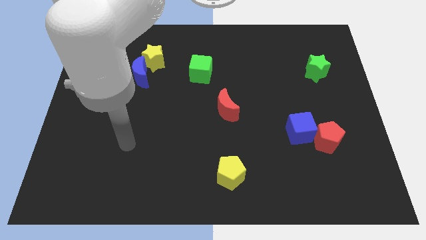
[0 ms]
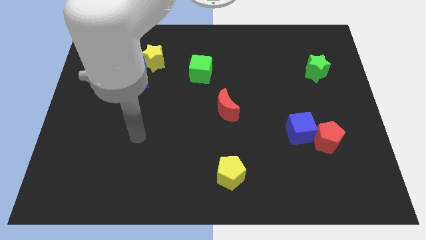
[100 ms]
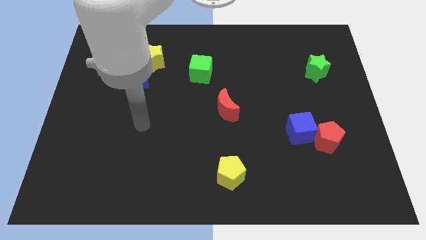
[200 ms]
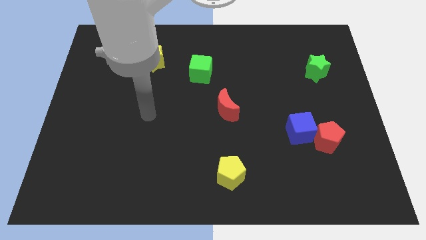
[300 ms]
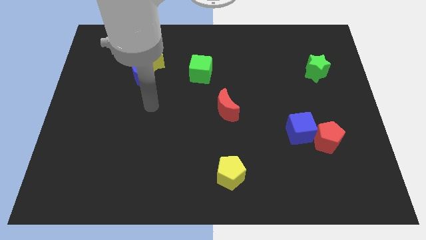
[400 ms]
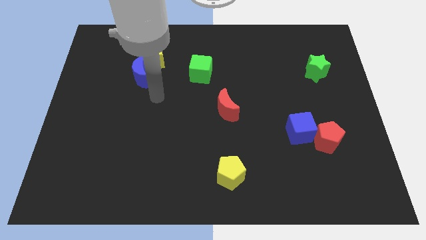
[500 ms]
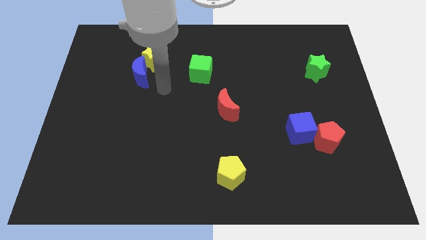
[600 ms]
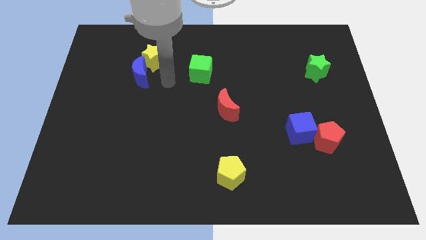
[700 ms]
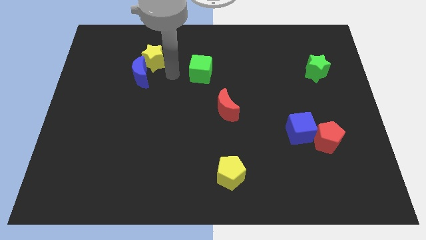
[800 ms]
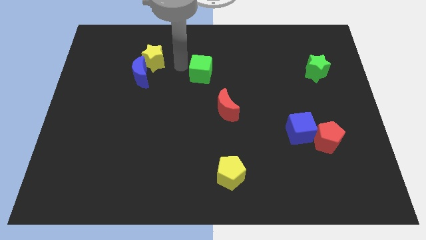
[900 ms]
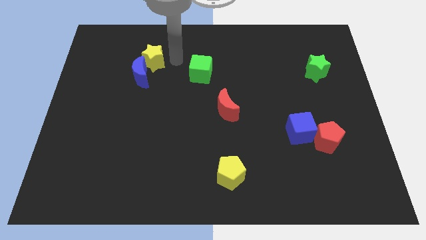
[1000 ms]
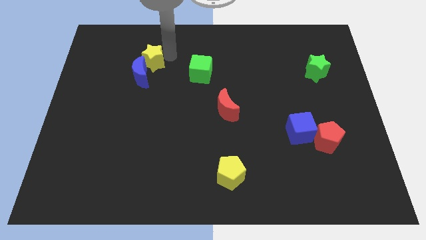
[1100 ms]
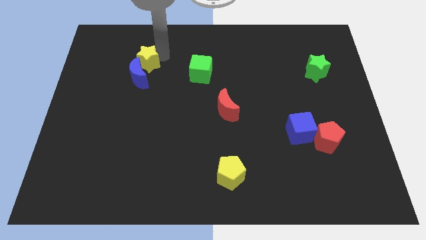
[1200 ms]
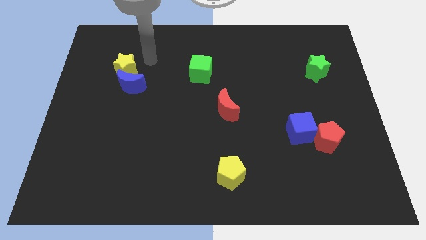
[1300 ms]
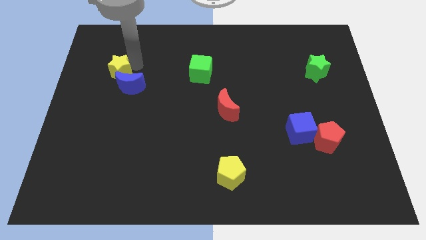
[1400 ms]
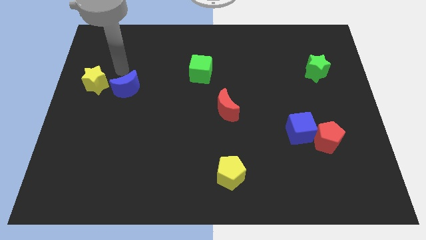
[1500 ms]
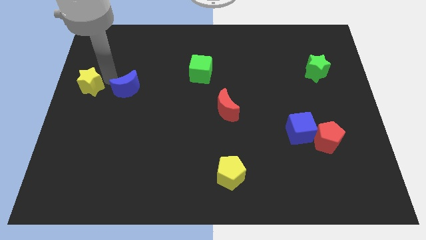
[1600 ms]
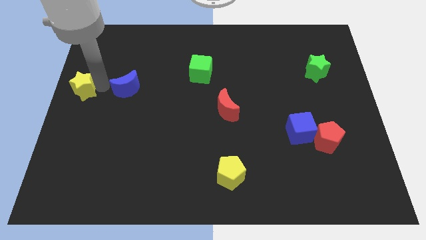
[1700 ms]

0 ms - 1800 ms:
move the blue moon away from the yellow star

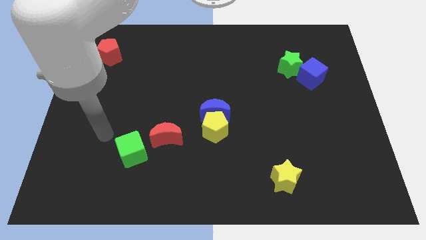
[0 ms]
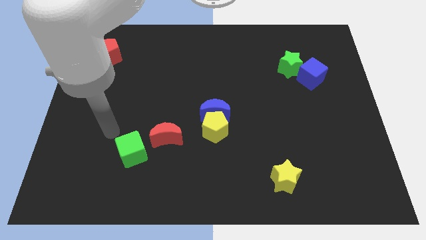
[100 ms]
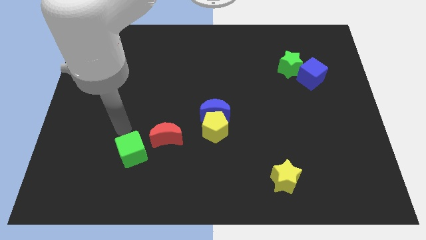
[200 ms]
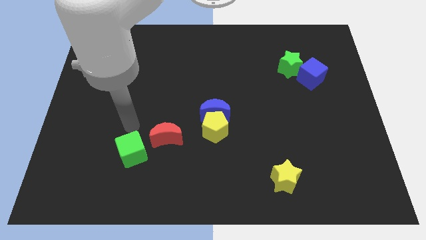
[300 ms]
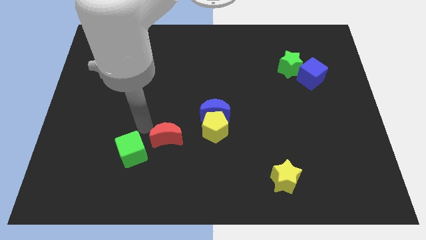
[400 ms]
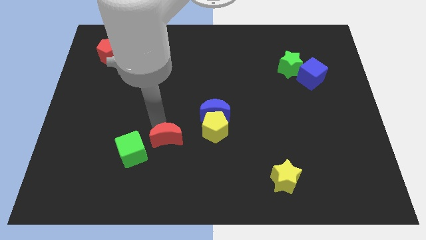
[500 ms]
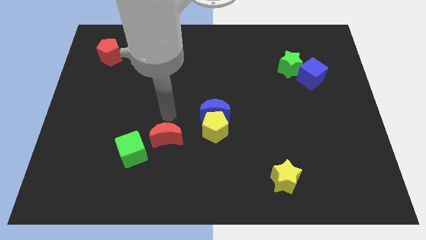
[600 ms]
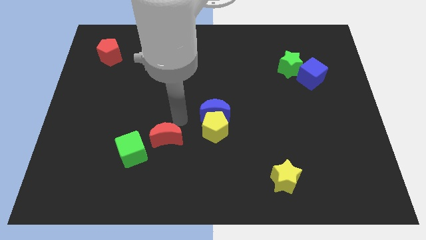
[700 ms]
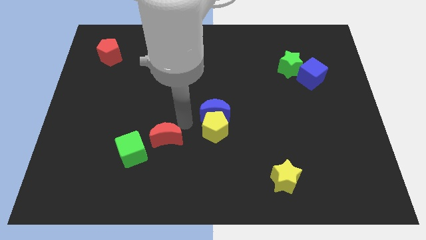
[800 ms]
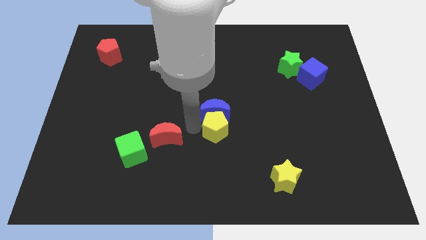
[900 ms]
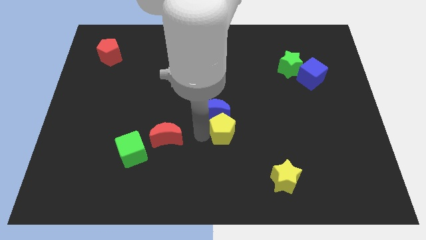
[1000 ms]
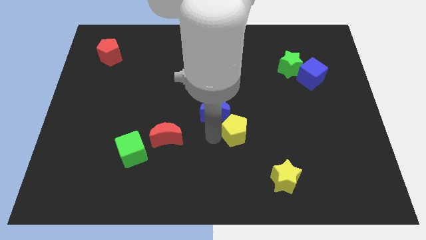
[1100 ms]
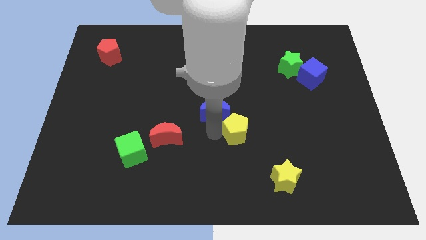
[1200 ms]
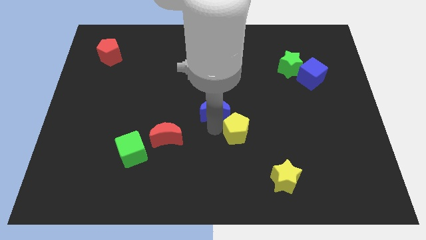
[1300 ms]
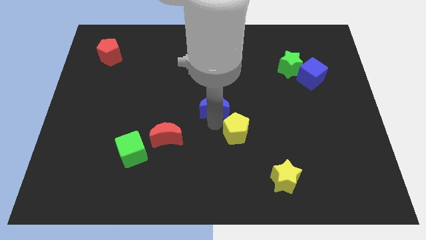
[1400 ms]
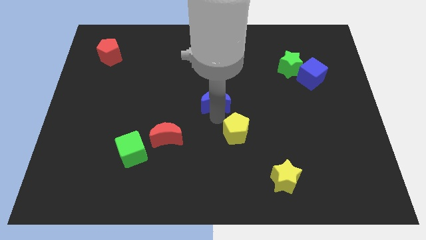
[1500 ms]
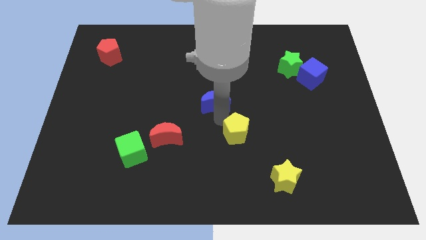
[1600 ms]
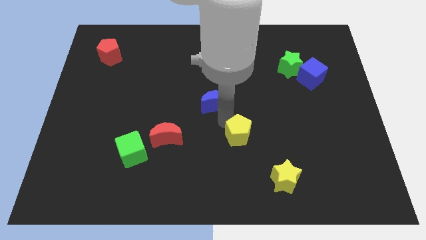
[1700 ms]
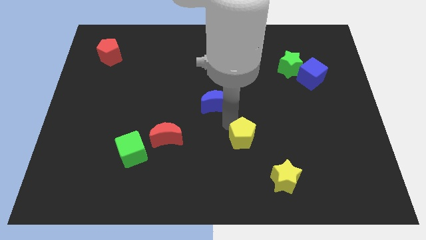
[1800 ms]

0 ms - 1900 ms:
pull the blue moon apart from the yellow pentagon

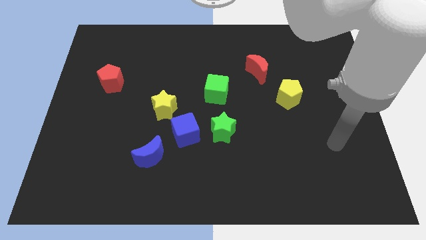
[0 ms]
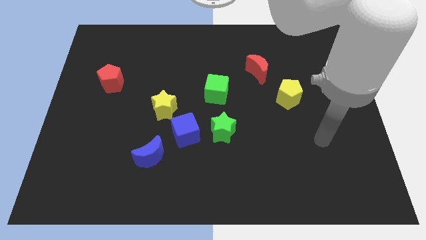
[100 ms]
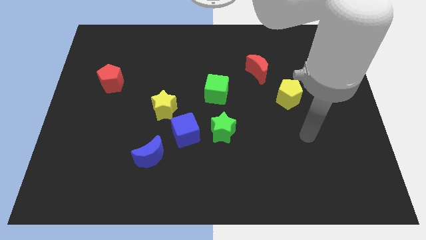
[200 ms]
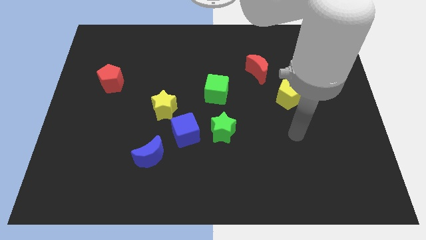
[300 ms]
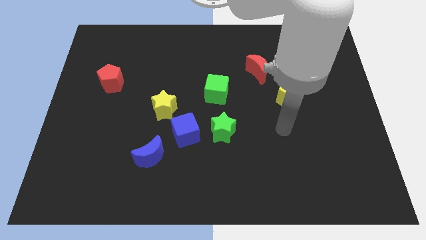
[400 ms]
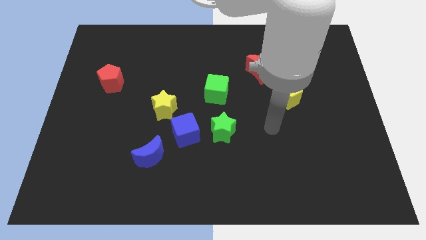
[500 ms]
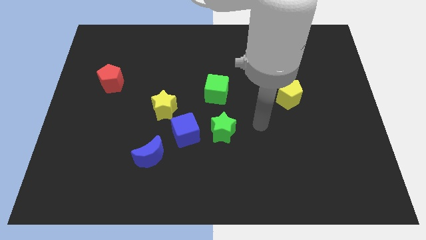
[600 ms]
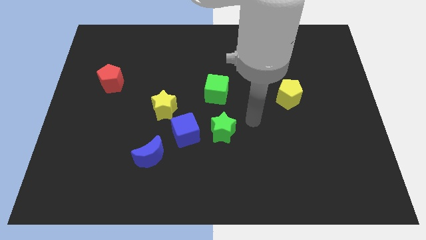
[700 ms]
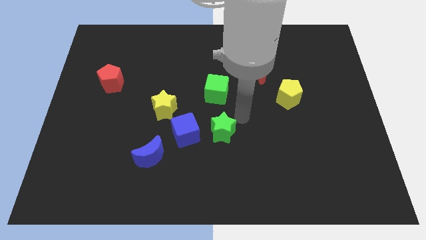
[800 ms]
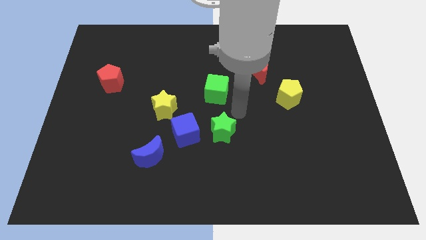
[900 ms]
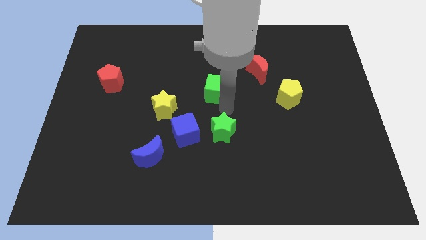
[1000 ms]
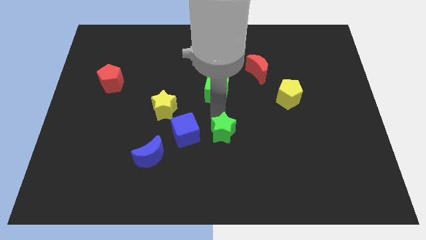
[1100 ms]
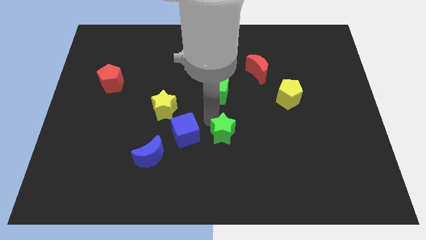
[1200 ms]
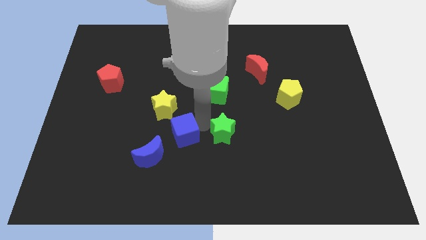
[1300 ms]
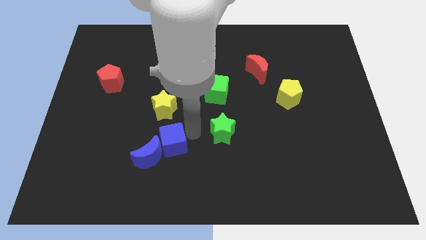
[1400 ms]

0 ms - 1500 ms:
separate the green star from the blue cube

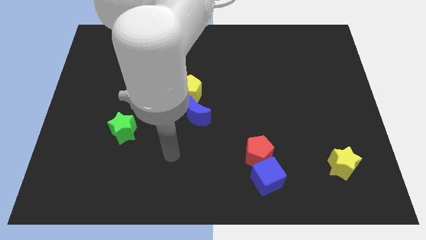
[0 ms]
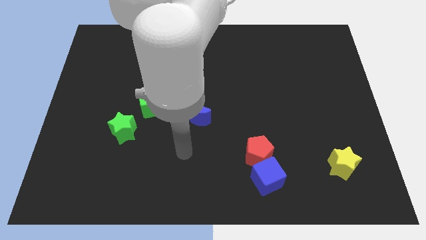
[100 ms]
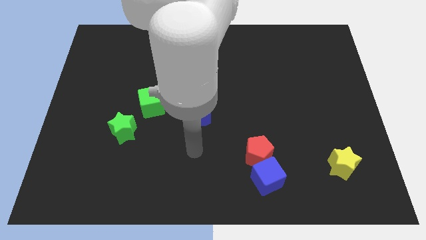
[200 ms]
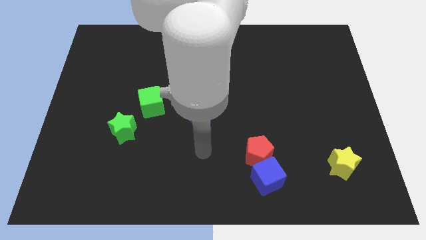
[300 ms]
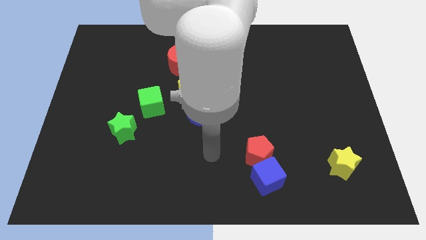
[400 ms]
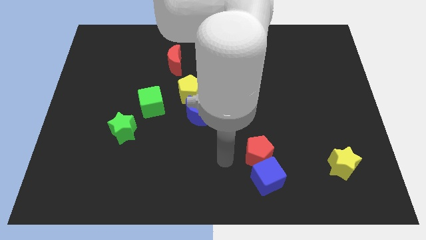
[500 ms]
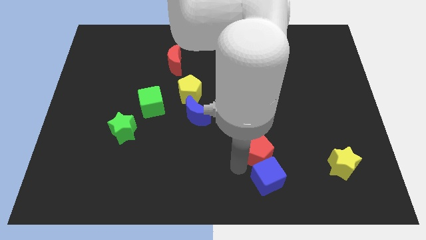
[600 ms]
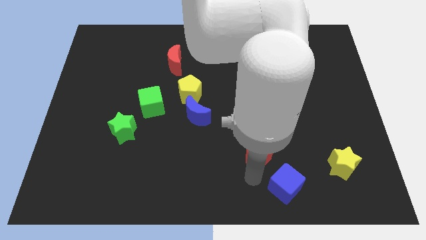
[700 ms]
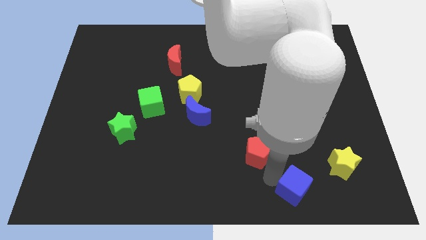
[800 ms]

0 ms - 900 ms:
pull the red pentagon apart from the blue cube

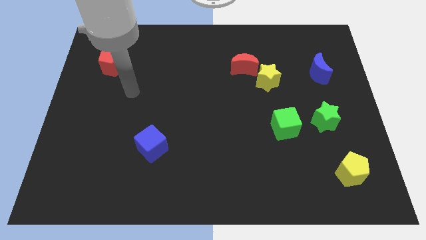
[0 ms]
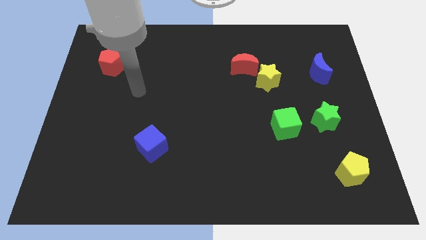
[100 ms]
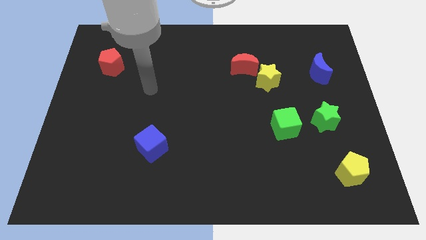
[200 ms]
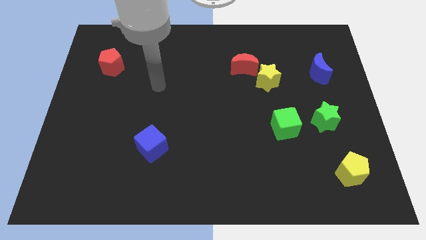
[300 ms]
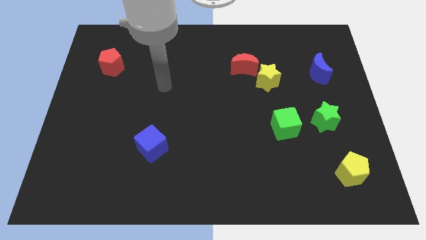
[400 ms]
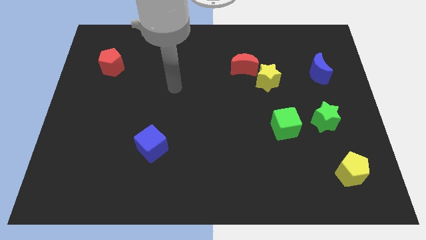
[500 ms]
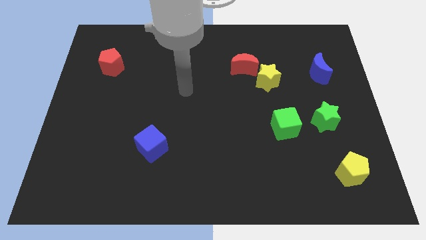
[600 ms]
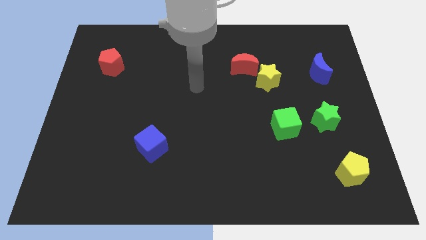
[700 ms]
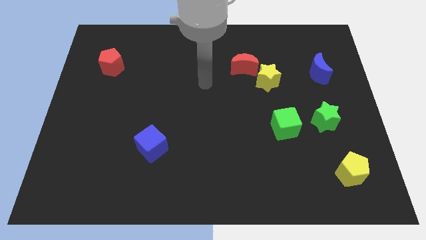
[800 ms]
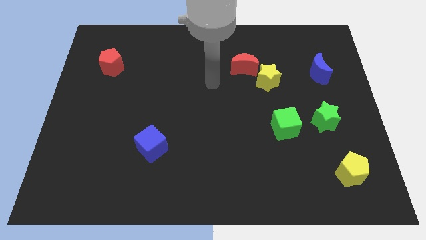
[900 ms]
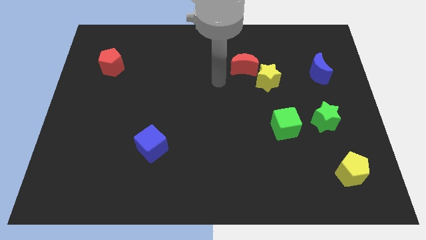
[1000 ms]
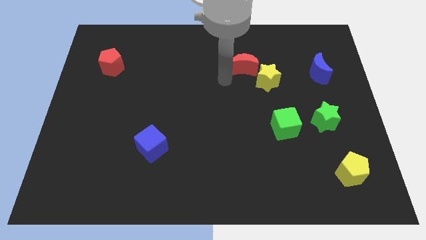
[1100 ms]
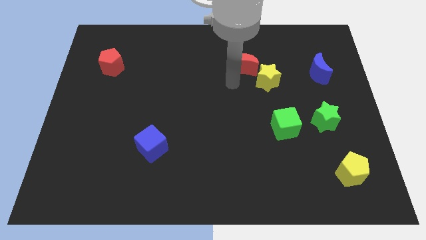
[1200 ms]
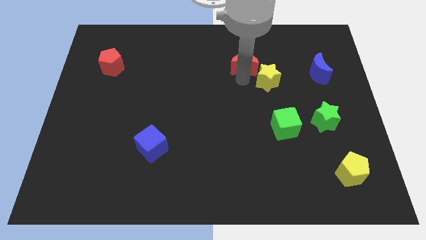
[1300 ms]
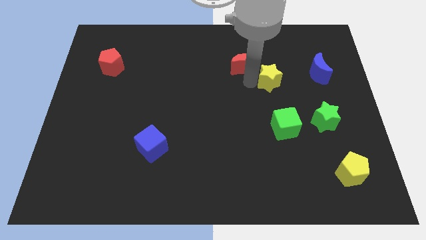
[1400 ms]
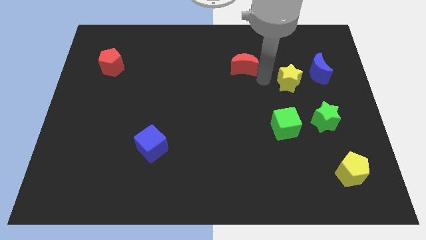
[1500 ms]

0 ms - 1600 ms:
move the red moon away from the yellow star

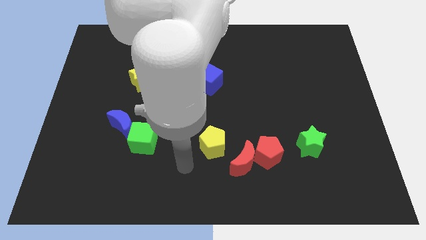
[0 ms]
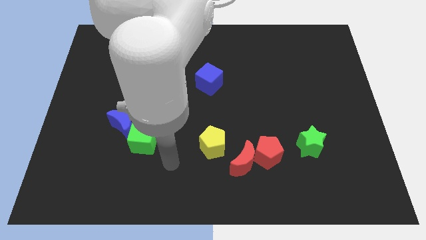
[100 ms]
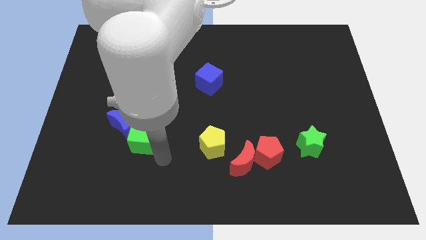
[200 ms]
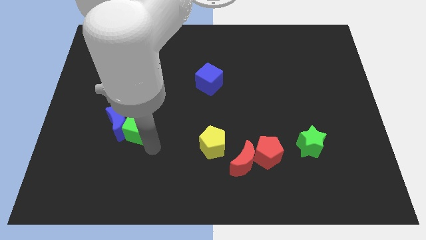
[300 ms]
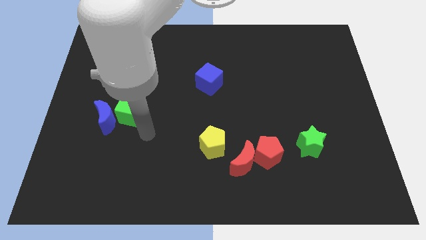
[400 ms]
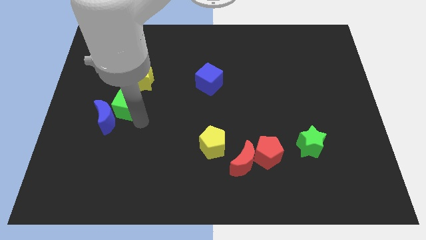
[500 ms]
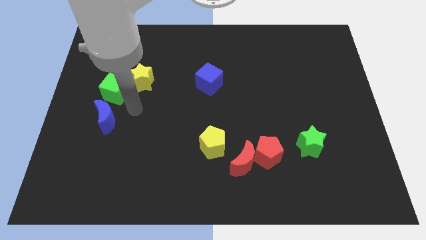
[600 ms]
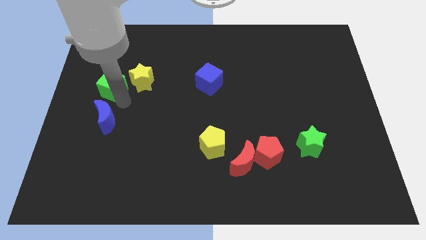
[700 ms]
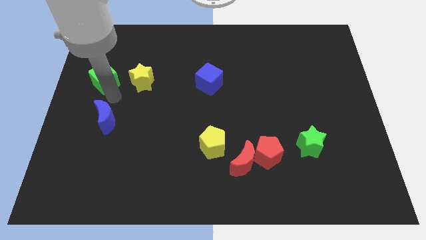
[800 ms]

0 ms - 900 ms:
separate the blue moon from the green cube

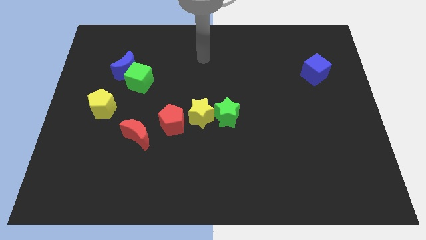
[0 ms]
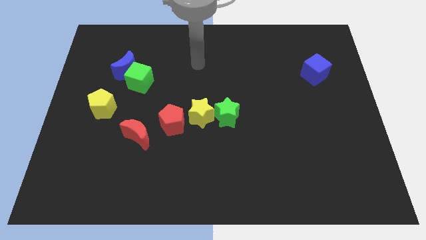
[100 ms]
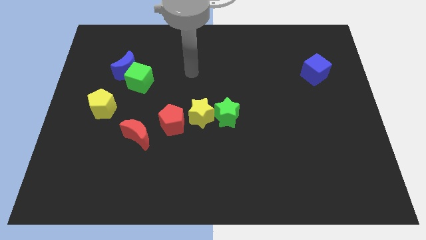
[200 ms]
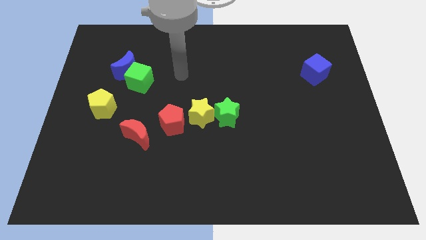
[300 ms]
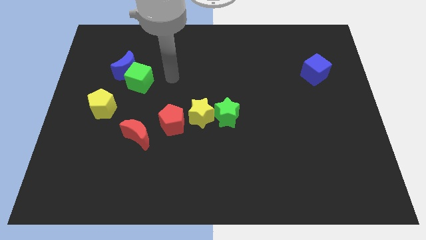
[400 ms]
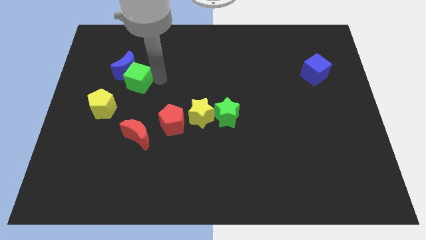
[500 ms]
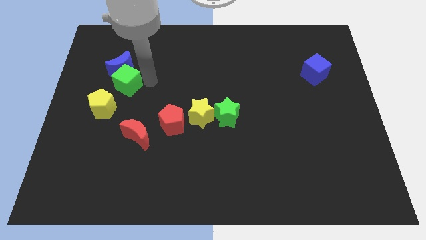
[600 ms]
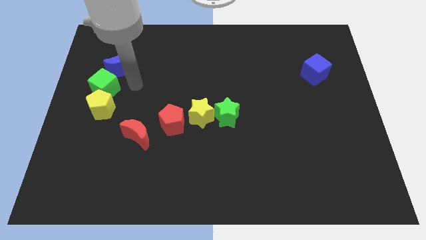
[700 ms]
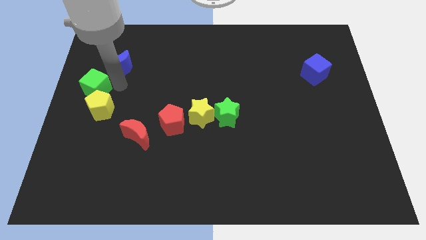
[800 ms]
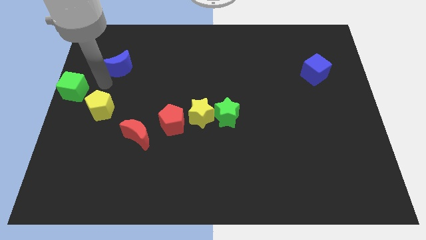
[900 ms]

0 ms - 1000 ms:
pull the blue moon apart from the green cube
